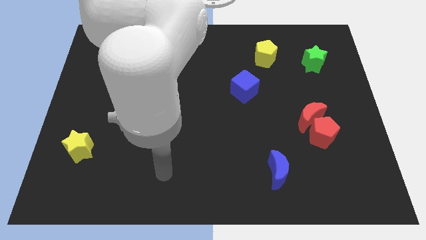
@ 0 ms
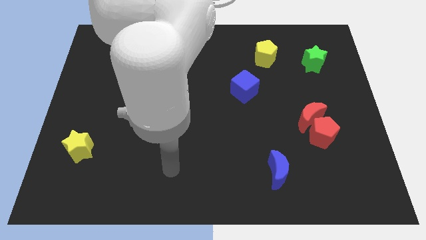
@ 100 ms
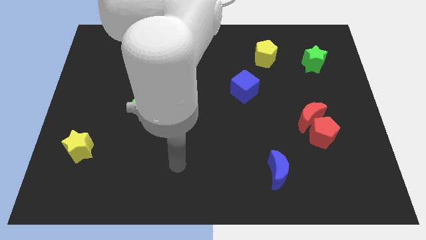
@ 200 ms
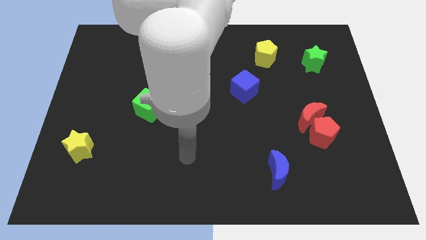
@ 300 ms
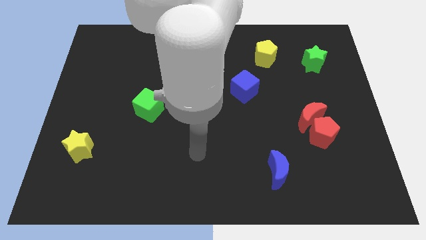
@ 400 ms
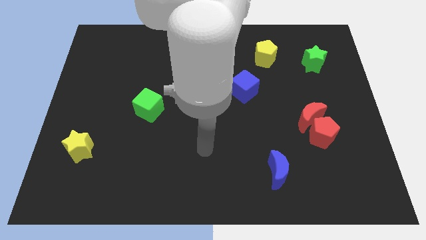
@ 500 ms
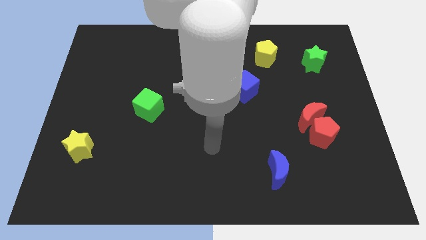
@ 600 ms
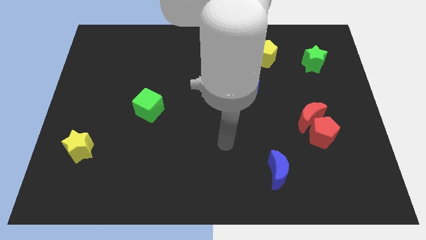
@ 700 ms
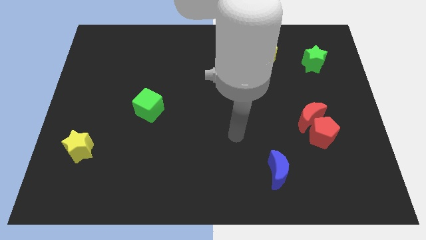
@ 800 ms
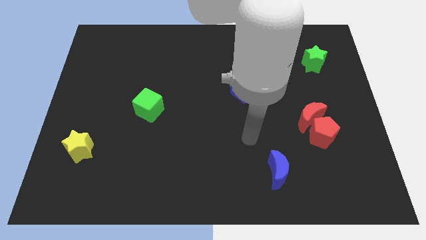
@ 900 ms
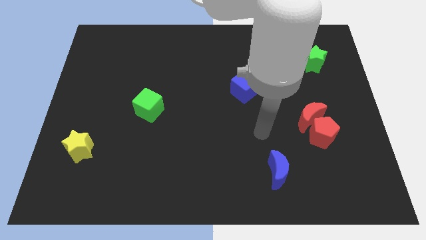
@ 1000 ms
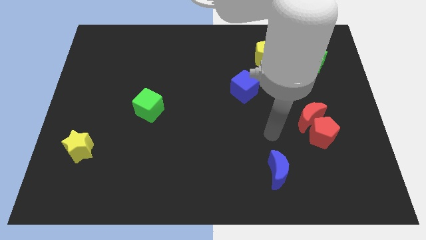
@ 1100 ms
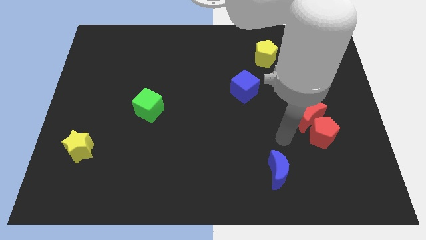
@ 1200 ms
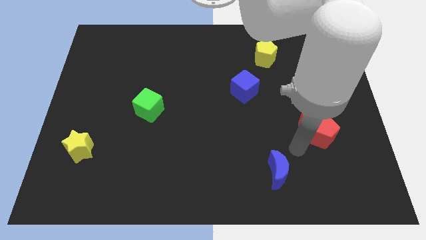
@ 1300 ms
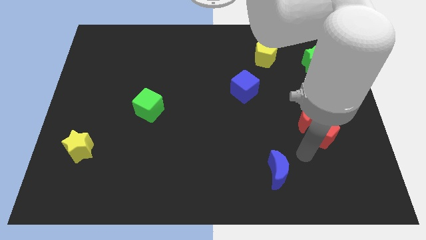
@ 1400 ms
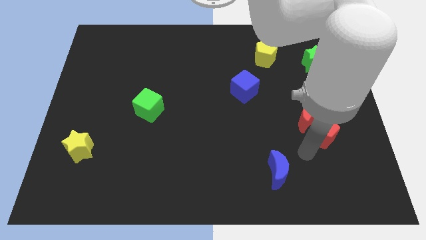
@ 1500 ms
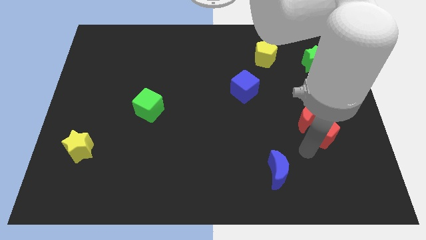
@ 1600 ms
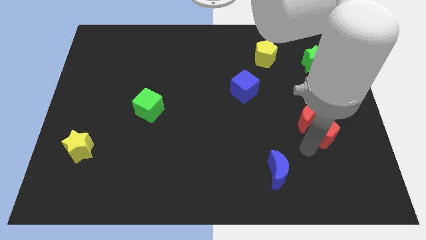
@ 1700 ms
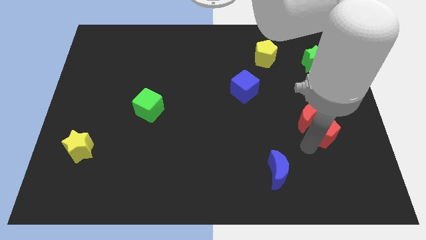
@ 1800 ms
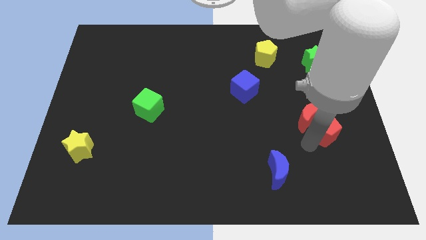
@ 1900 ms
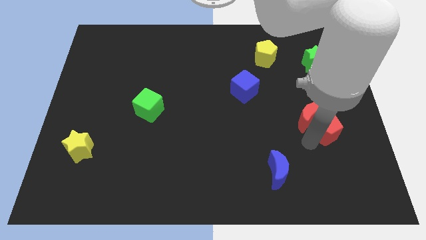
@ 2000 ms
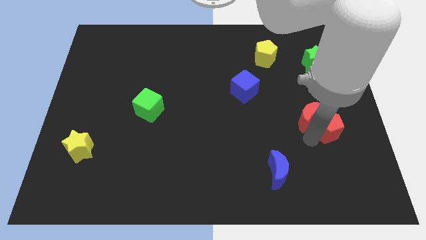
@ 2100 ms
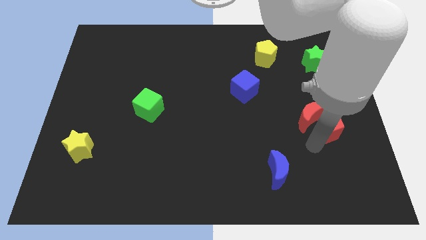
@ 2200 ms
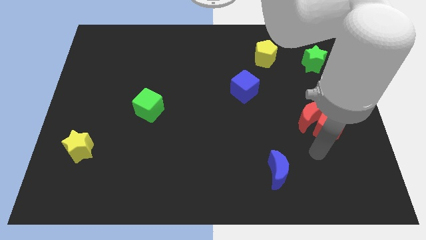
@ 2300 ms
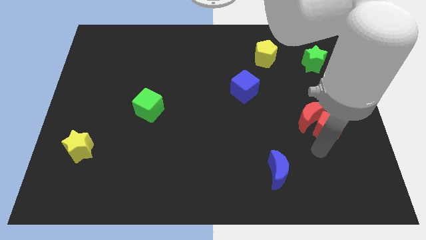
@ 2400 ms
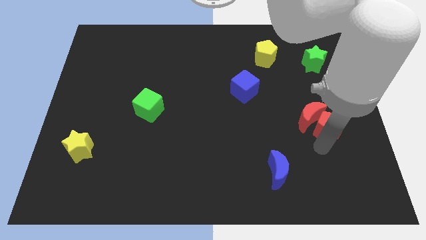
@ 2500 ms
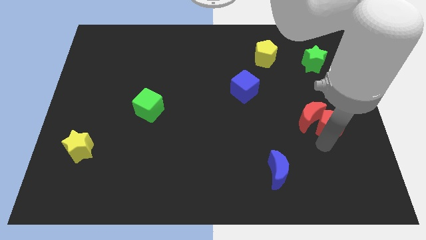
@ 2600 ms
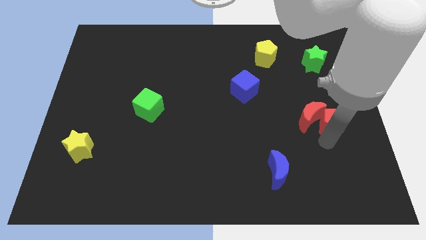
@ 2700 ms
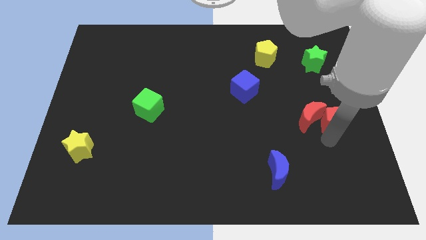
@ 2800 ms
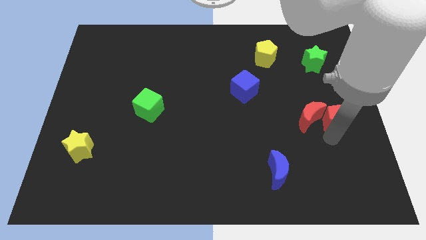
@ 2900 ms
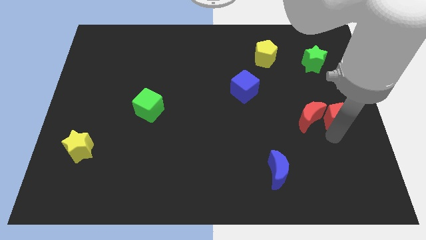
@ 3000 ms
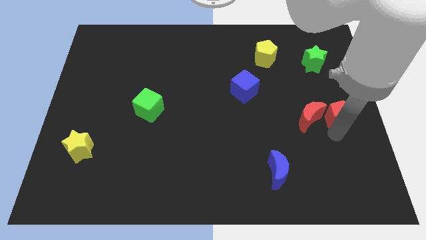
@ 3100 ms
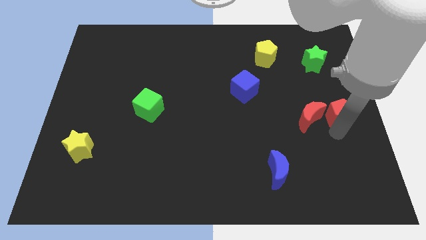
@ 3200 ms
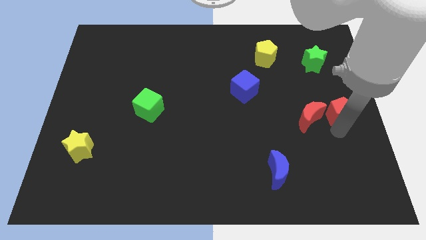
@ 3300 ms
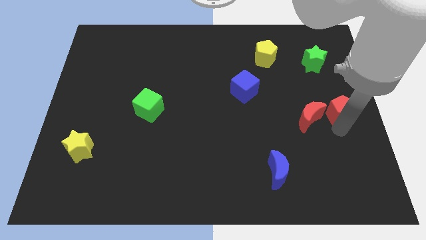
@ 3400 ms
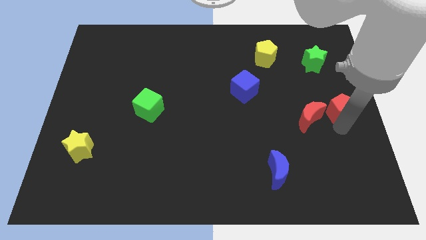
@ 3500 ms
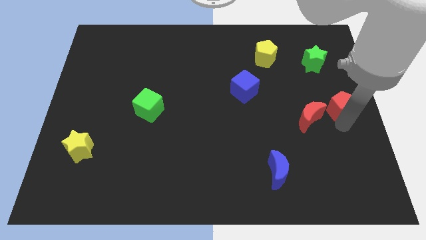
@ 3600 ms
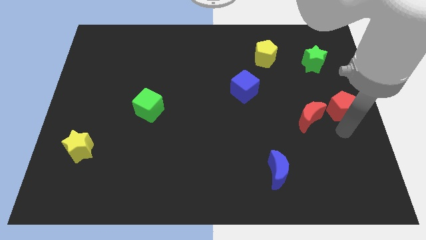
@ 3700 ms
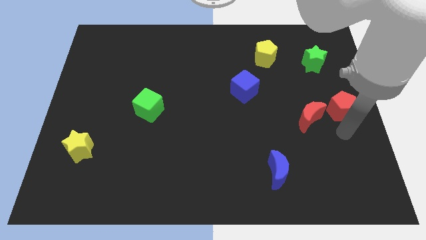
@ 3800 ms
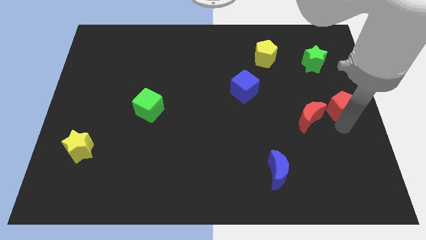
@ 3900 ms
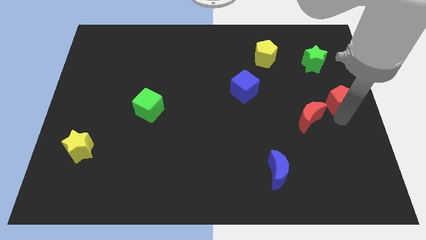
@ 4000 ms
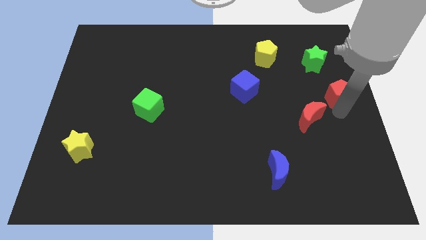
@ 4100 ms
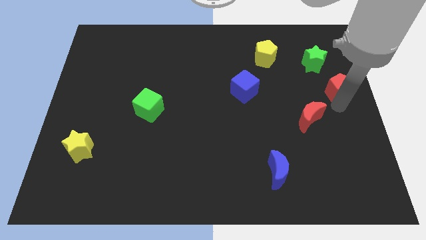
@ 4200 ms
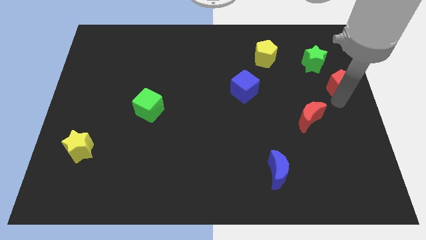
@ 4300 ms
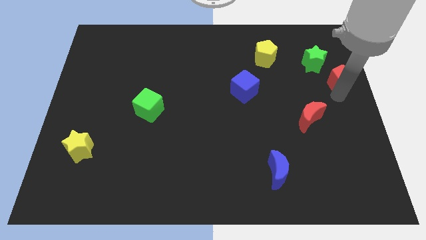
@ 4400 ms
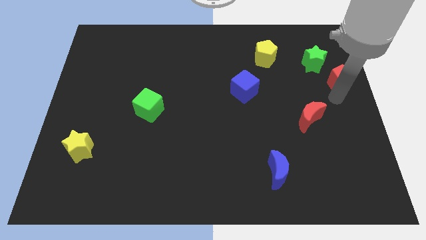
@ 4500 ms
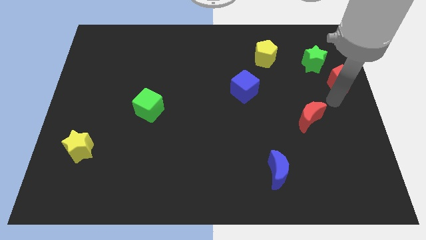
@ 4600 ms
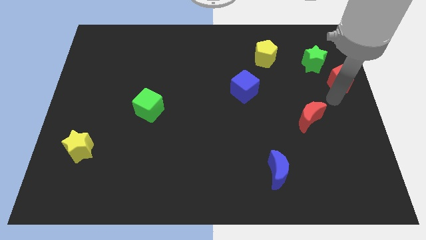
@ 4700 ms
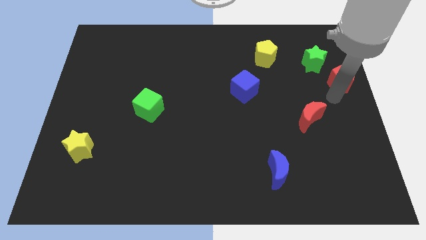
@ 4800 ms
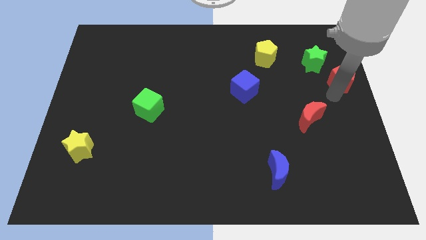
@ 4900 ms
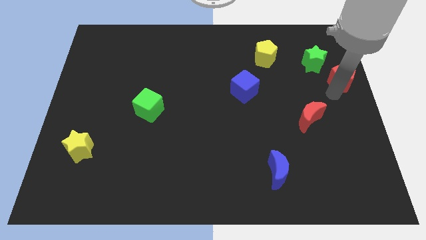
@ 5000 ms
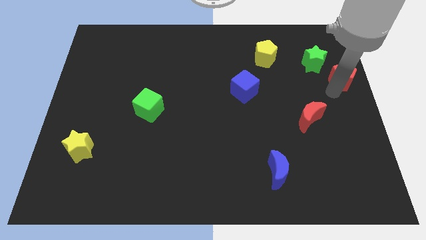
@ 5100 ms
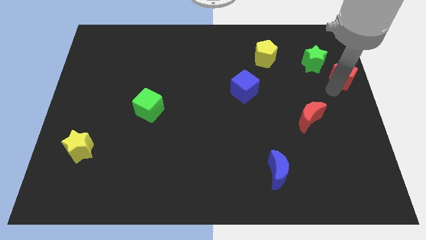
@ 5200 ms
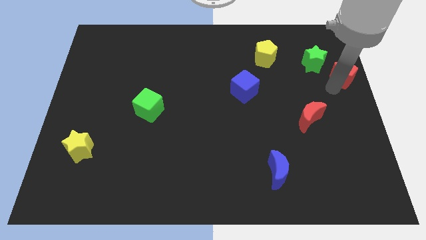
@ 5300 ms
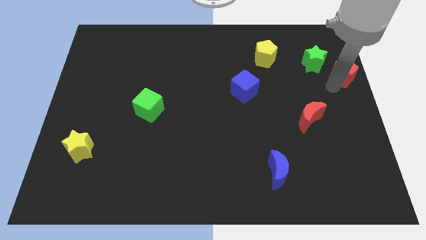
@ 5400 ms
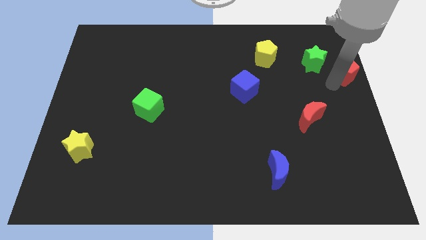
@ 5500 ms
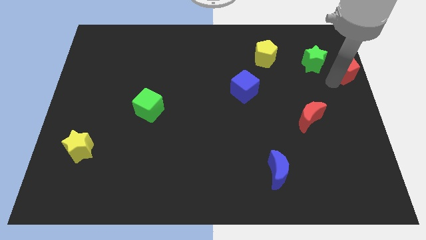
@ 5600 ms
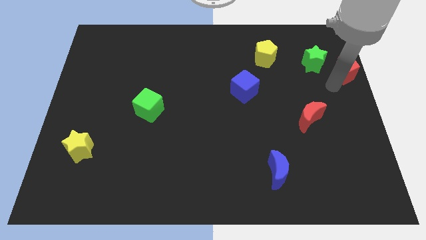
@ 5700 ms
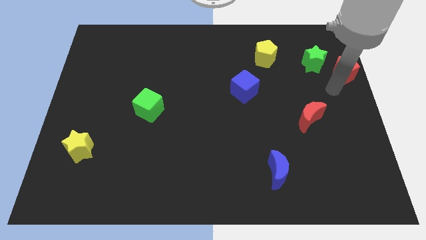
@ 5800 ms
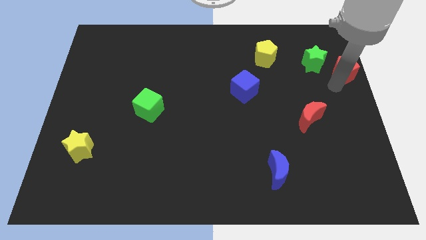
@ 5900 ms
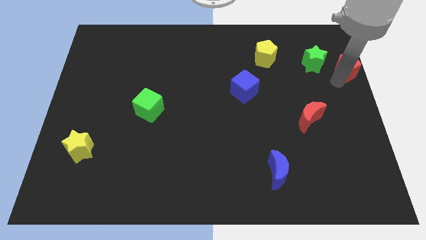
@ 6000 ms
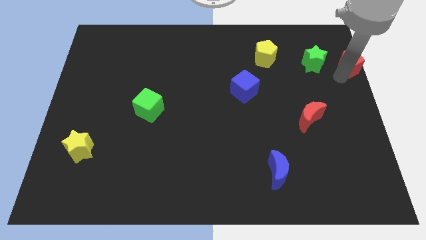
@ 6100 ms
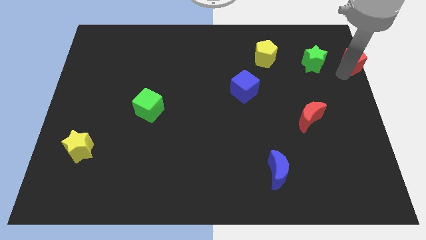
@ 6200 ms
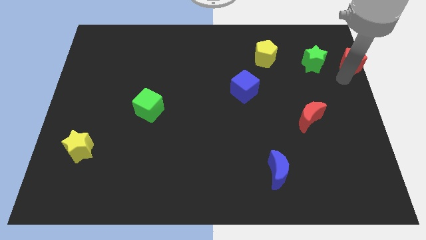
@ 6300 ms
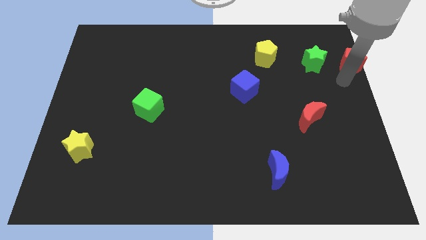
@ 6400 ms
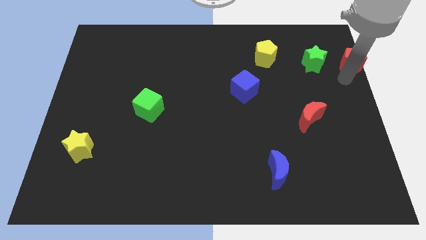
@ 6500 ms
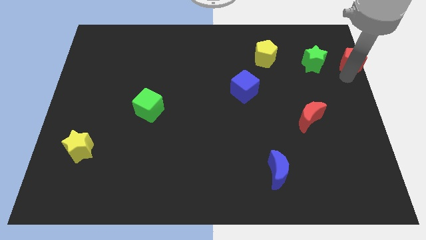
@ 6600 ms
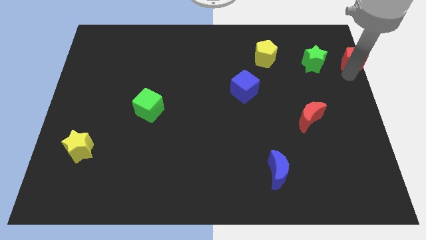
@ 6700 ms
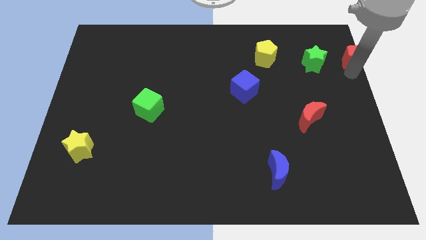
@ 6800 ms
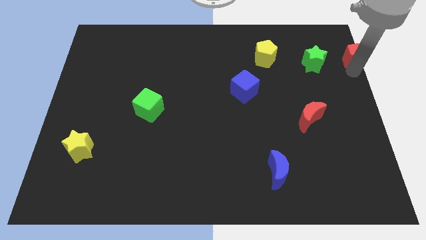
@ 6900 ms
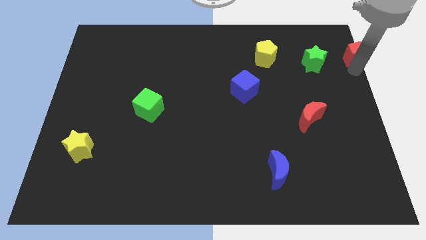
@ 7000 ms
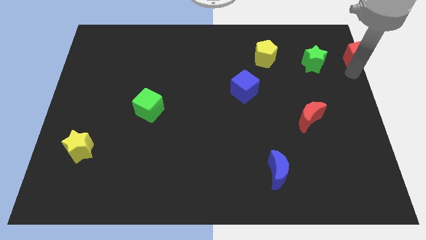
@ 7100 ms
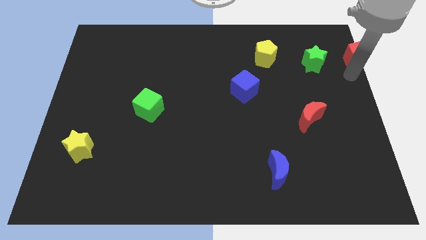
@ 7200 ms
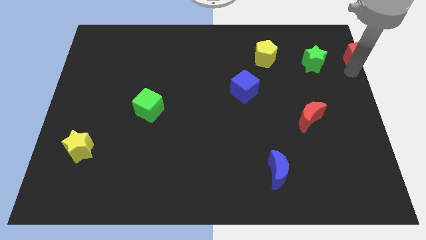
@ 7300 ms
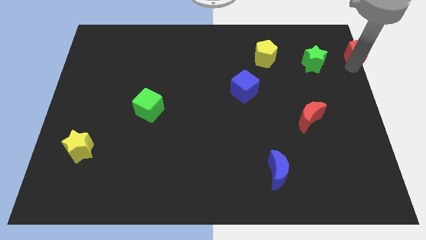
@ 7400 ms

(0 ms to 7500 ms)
slide the red pentagon to the upper right corner
